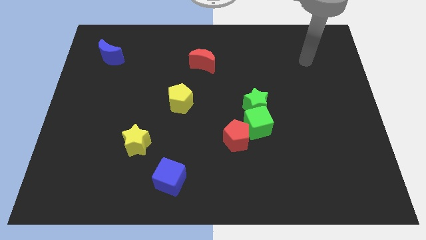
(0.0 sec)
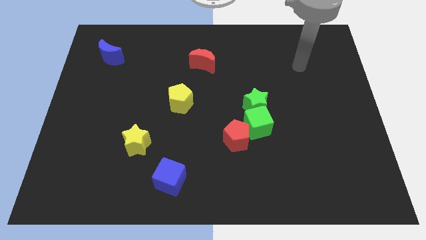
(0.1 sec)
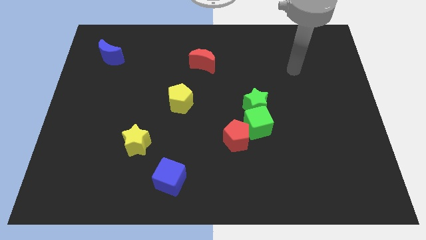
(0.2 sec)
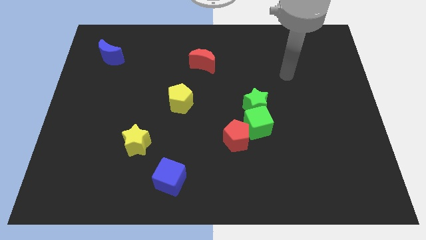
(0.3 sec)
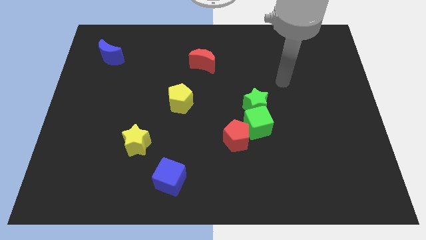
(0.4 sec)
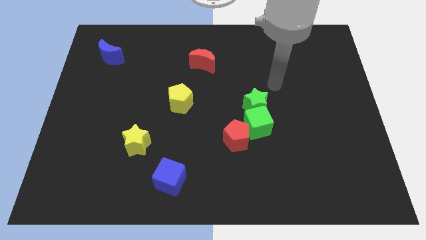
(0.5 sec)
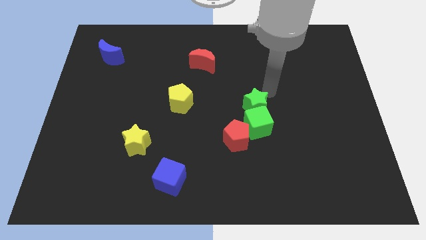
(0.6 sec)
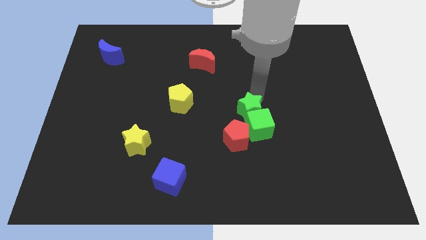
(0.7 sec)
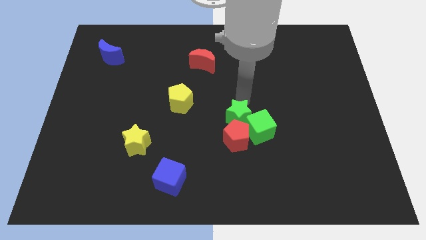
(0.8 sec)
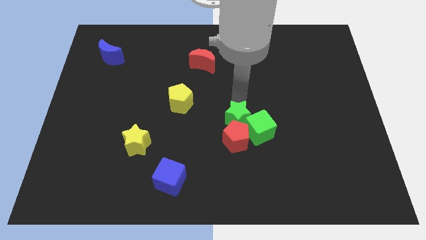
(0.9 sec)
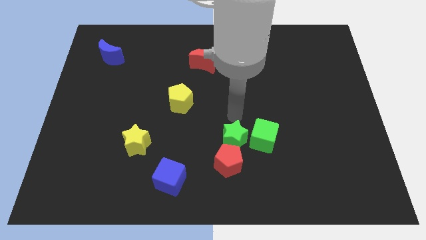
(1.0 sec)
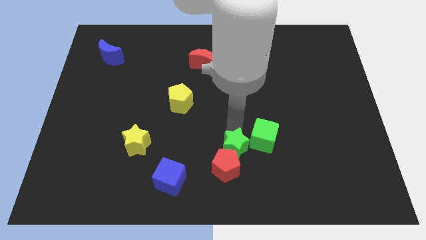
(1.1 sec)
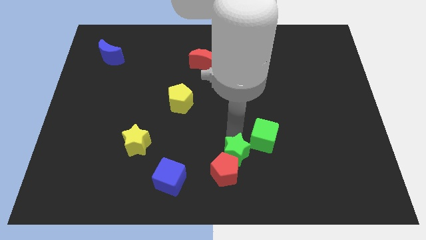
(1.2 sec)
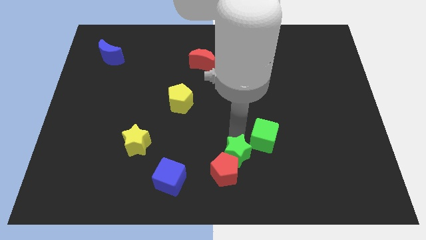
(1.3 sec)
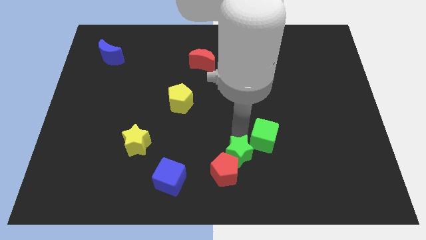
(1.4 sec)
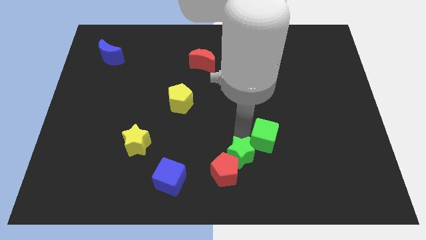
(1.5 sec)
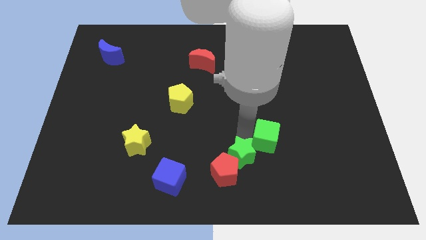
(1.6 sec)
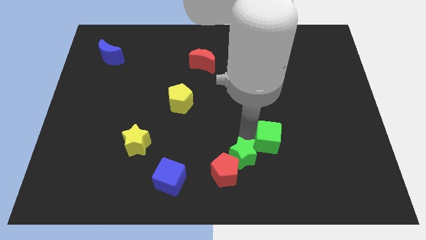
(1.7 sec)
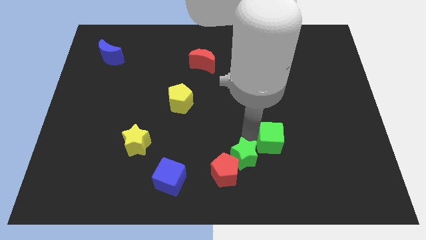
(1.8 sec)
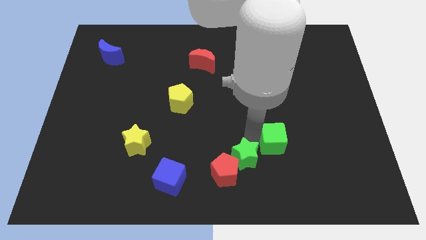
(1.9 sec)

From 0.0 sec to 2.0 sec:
pull the green cube apart from the green star and red pentagon

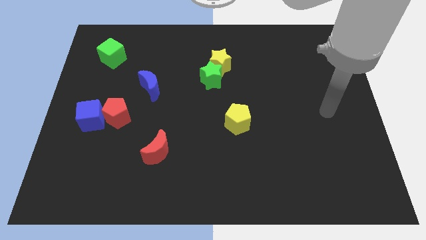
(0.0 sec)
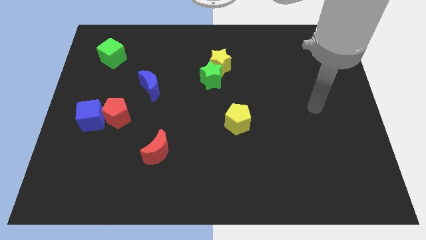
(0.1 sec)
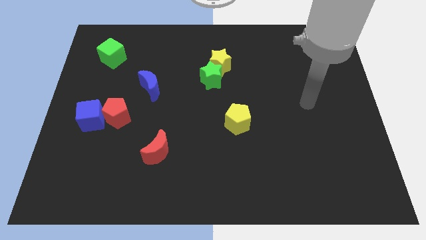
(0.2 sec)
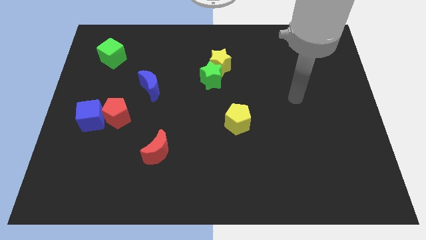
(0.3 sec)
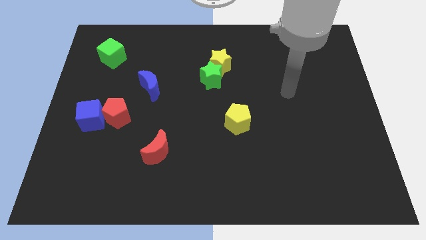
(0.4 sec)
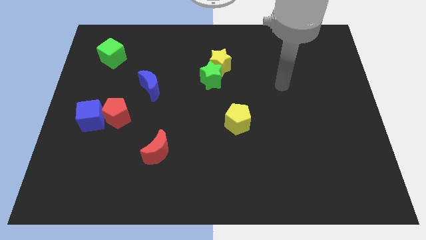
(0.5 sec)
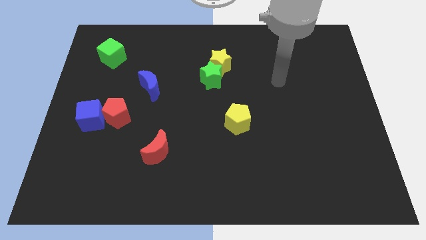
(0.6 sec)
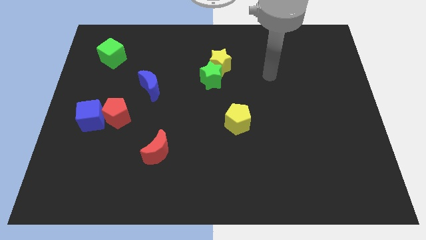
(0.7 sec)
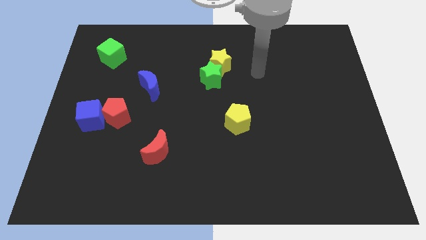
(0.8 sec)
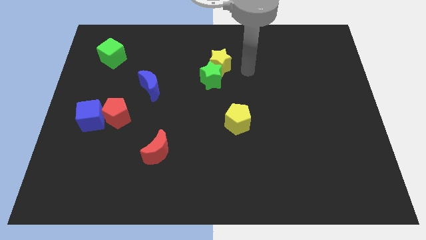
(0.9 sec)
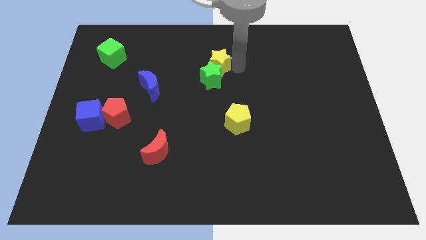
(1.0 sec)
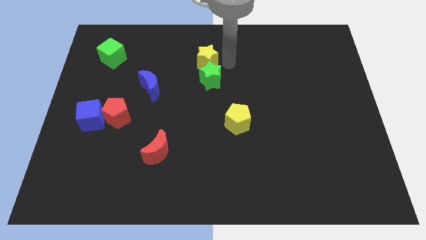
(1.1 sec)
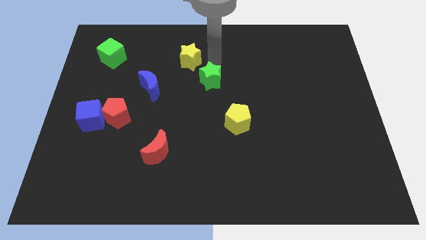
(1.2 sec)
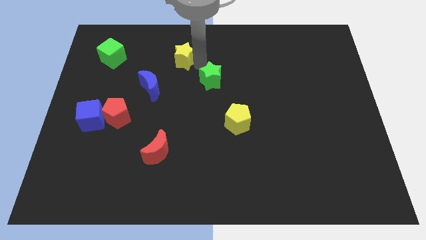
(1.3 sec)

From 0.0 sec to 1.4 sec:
separate the green star from the yellow star

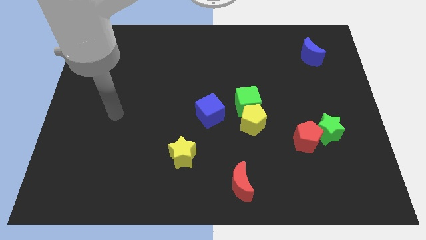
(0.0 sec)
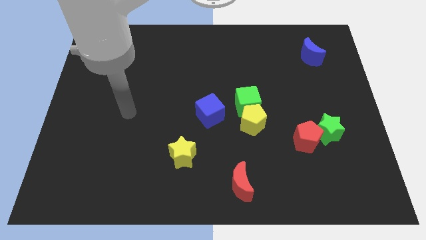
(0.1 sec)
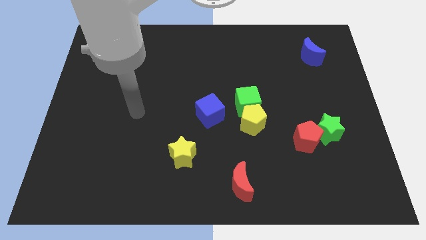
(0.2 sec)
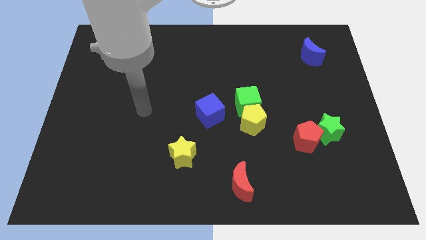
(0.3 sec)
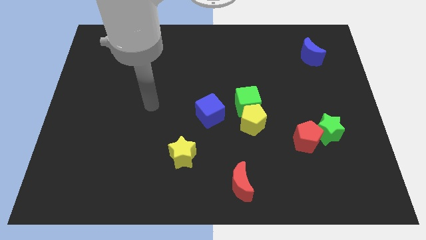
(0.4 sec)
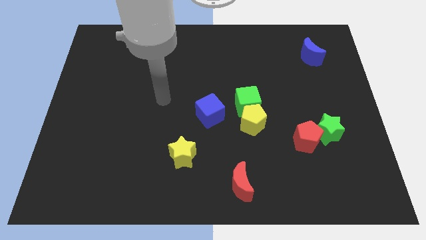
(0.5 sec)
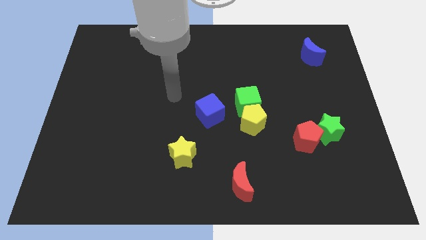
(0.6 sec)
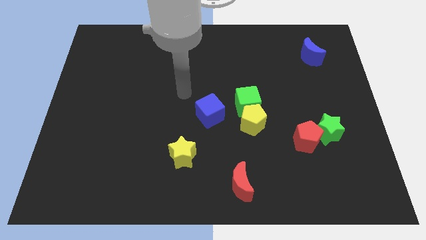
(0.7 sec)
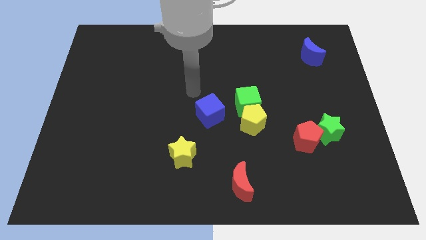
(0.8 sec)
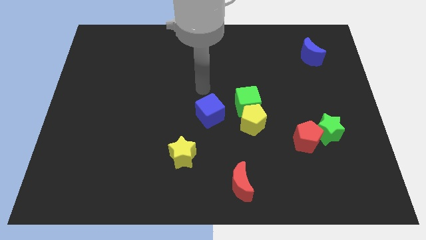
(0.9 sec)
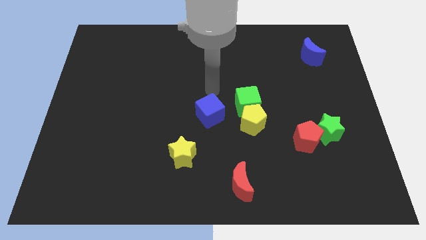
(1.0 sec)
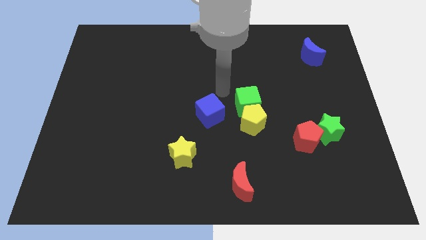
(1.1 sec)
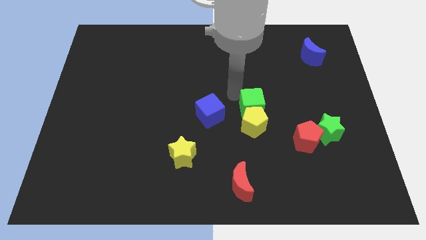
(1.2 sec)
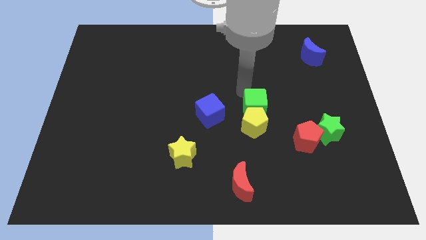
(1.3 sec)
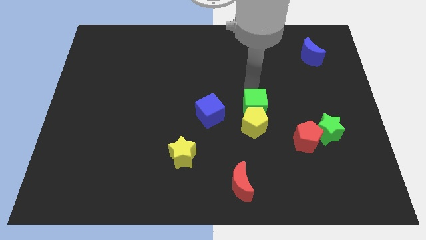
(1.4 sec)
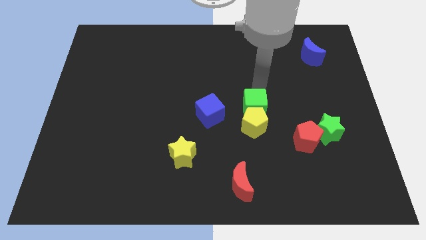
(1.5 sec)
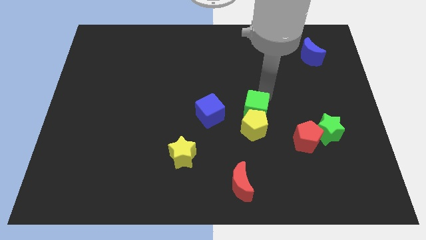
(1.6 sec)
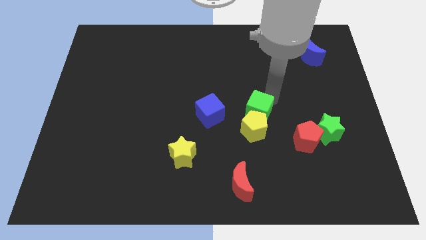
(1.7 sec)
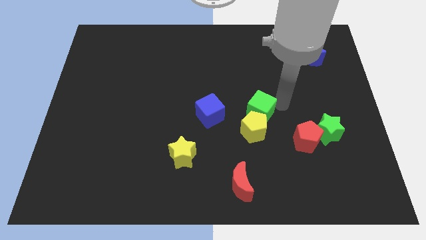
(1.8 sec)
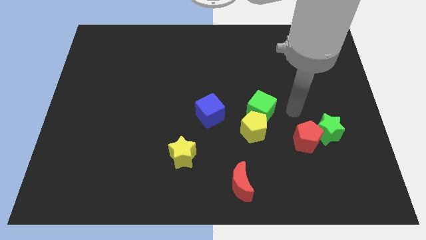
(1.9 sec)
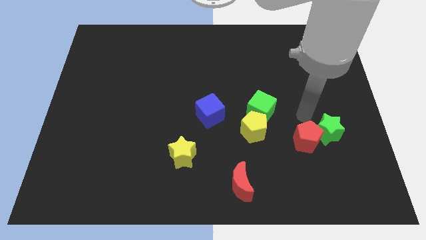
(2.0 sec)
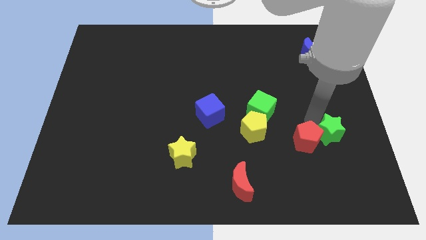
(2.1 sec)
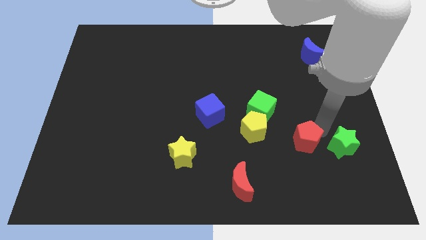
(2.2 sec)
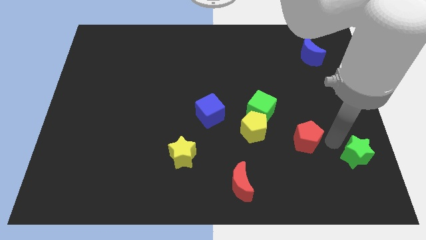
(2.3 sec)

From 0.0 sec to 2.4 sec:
separate the red pentagon from the green star

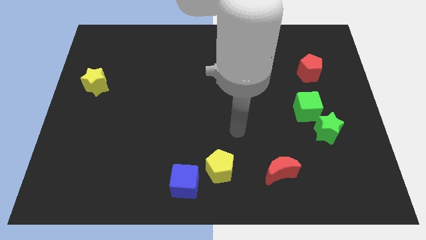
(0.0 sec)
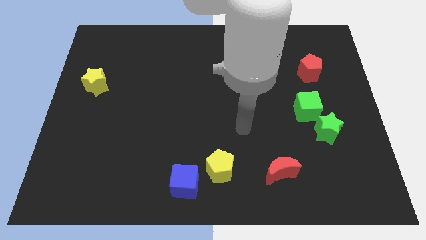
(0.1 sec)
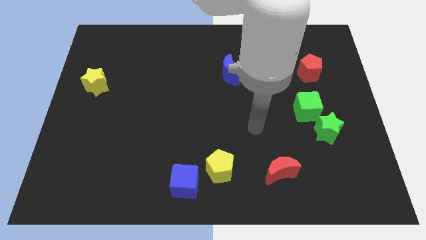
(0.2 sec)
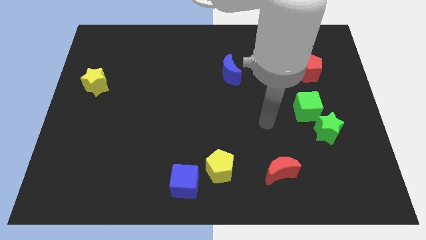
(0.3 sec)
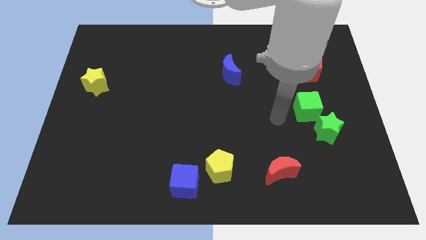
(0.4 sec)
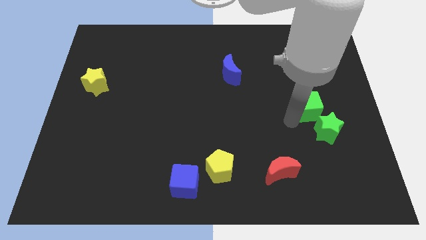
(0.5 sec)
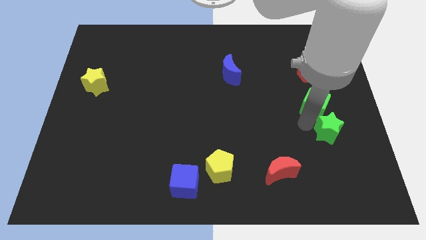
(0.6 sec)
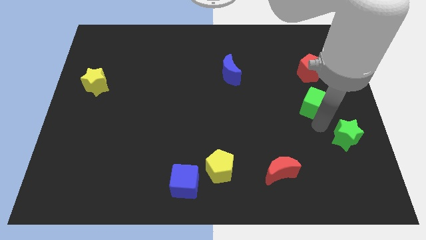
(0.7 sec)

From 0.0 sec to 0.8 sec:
move the green cube away from the green star

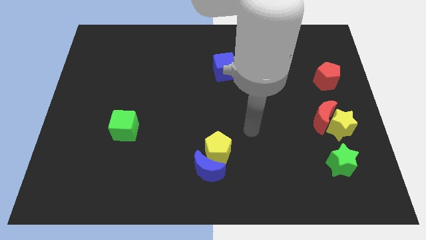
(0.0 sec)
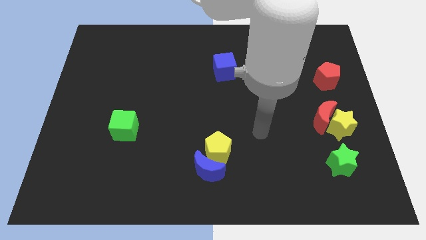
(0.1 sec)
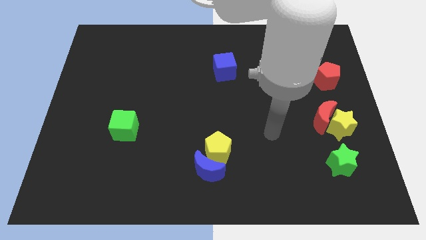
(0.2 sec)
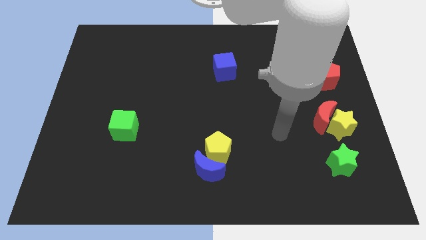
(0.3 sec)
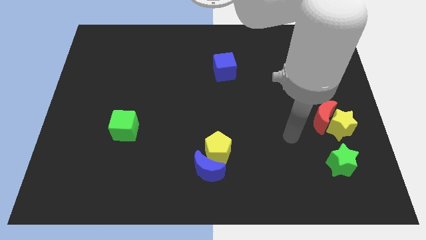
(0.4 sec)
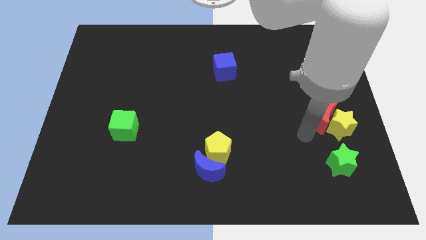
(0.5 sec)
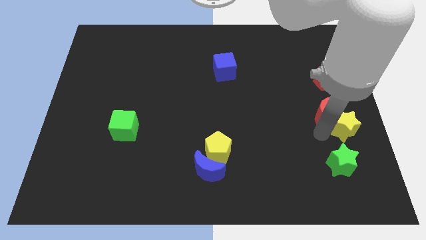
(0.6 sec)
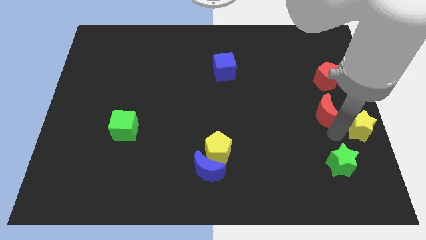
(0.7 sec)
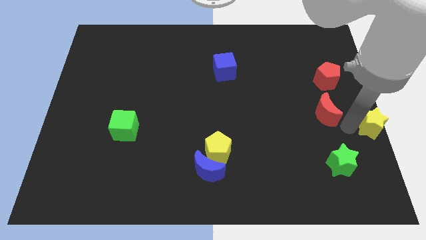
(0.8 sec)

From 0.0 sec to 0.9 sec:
pull the red moon apart from the yellow star

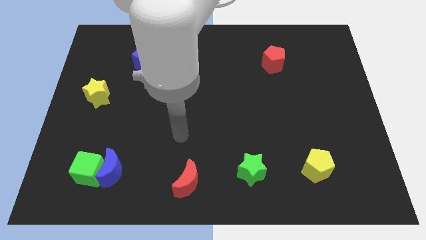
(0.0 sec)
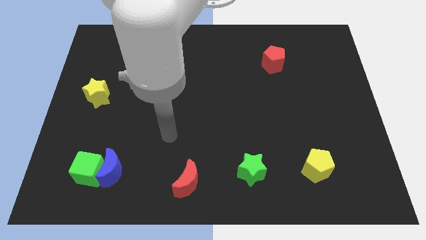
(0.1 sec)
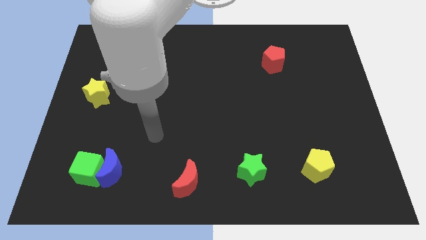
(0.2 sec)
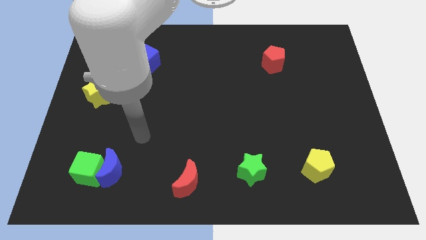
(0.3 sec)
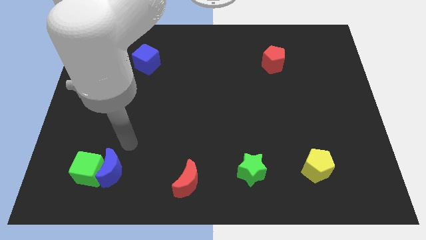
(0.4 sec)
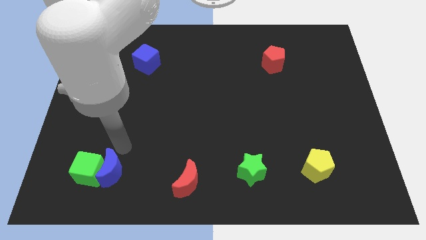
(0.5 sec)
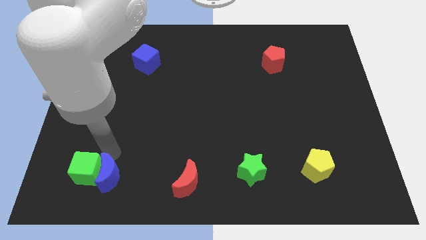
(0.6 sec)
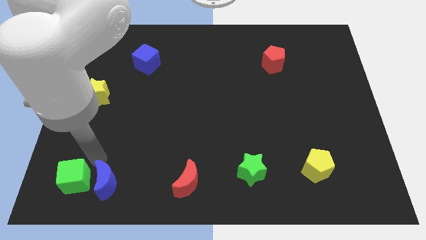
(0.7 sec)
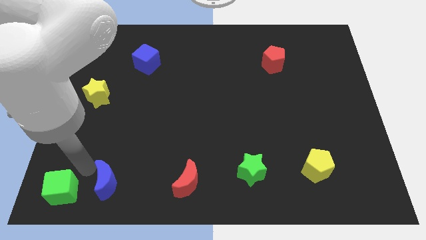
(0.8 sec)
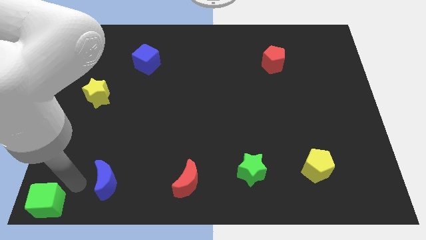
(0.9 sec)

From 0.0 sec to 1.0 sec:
separate the blue moon from the green cube

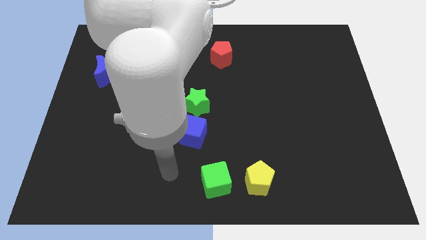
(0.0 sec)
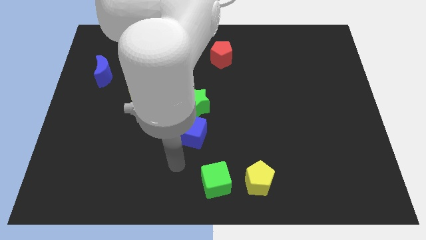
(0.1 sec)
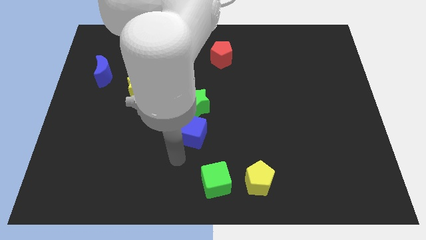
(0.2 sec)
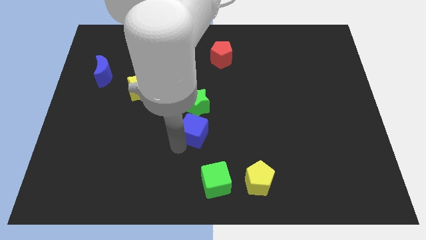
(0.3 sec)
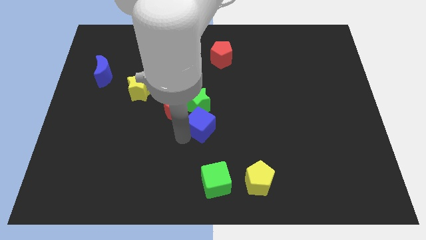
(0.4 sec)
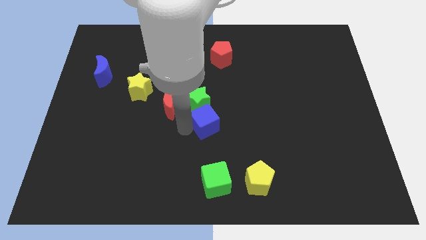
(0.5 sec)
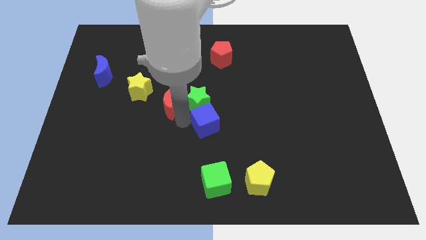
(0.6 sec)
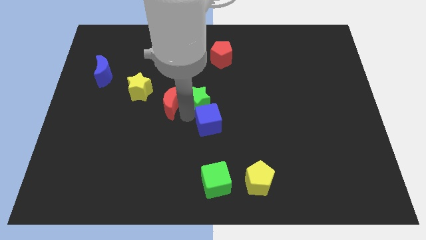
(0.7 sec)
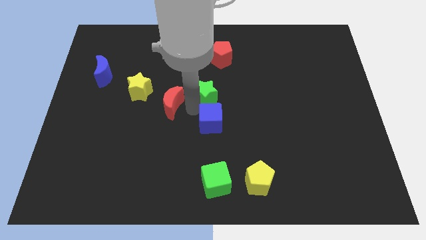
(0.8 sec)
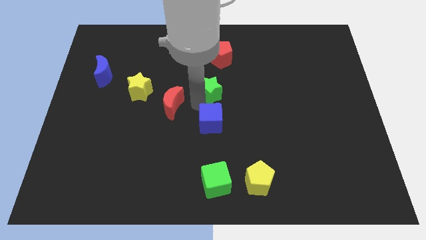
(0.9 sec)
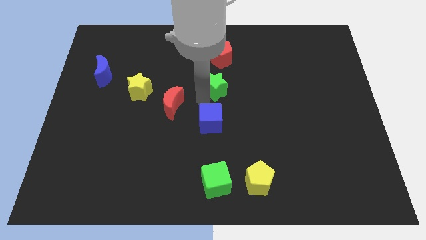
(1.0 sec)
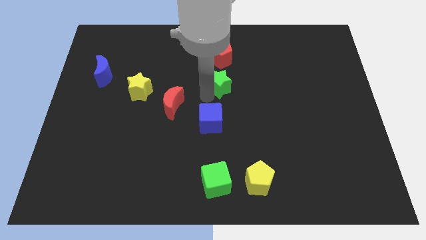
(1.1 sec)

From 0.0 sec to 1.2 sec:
pull the green star apart from the red moon and blue cube